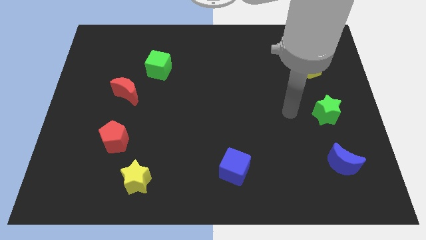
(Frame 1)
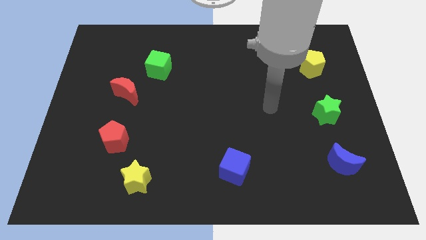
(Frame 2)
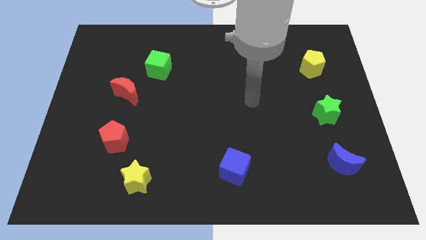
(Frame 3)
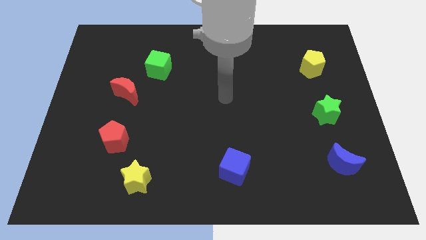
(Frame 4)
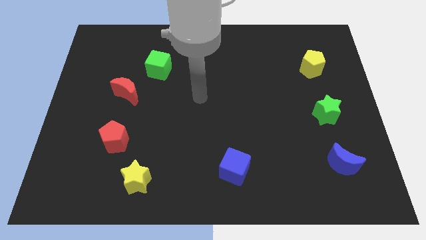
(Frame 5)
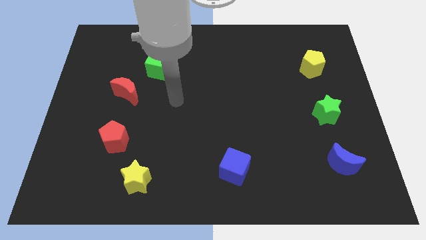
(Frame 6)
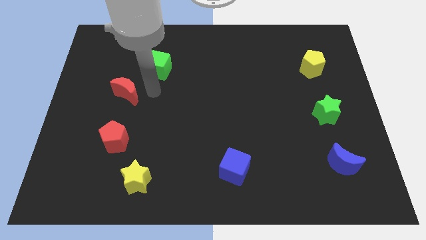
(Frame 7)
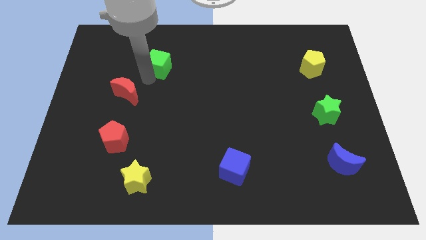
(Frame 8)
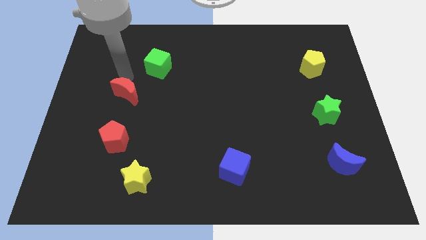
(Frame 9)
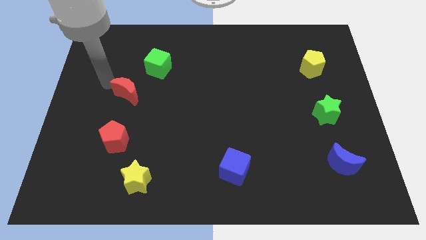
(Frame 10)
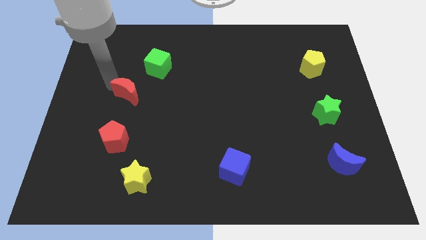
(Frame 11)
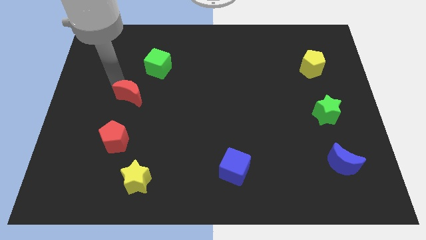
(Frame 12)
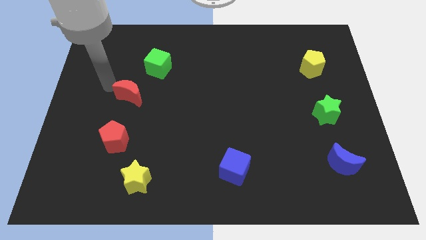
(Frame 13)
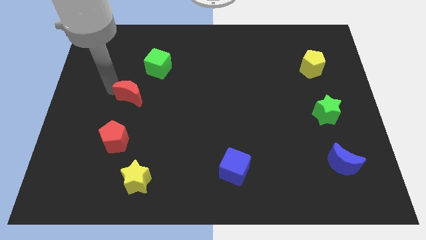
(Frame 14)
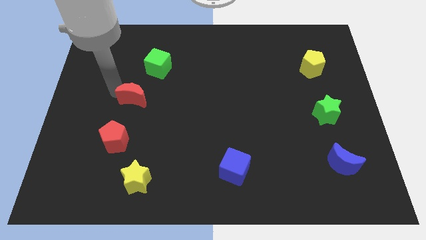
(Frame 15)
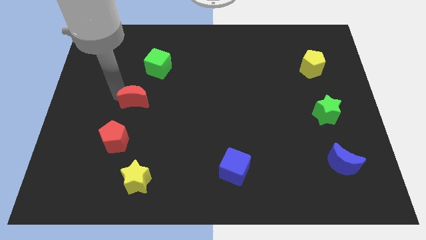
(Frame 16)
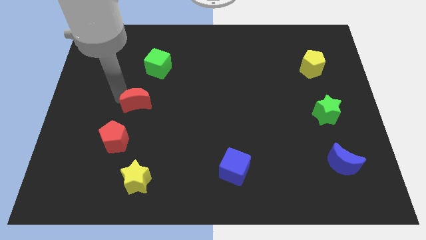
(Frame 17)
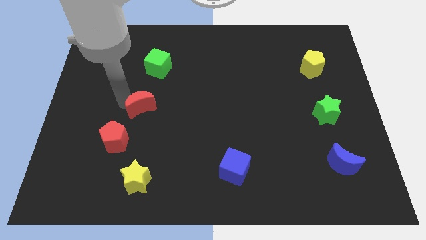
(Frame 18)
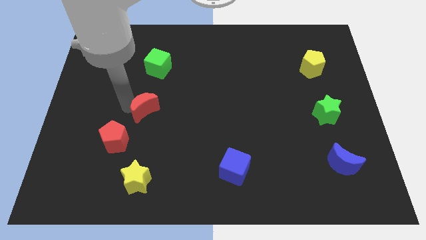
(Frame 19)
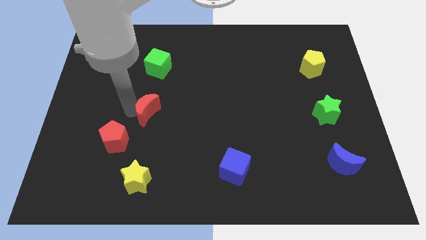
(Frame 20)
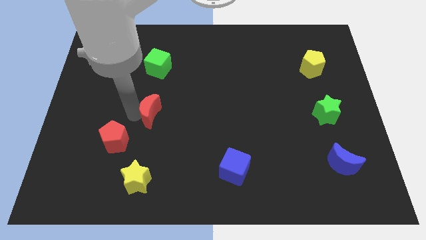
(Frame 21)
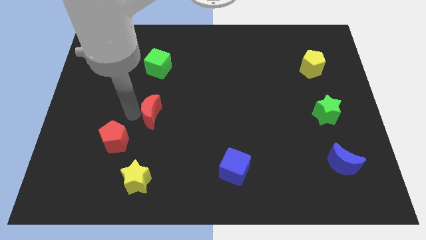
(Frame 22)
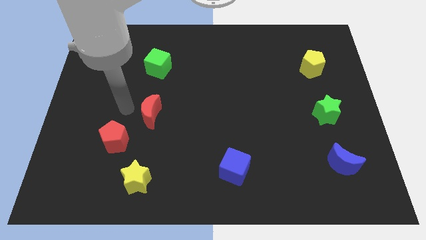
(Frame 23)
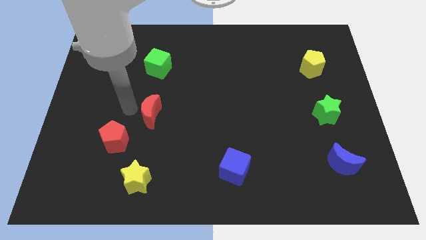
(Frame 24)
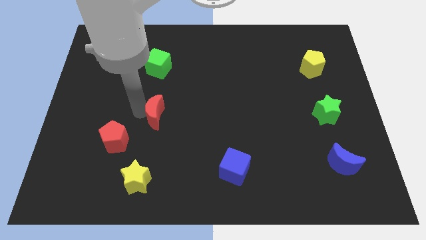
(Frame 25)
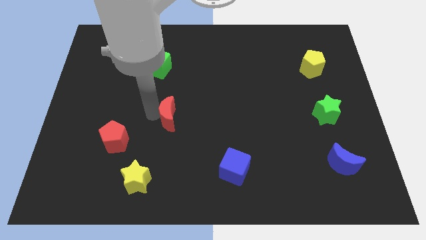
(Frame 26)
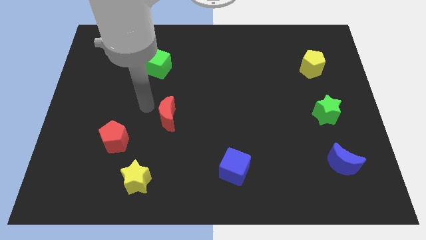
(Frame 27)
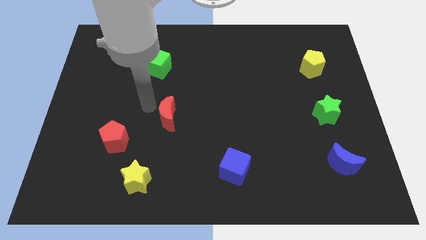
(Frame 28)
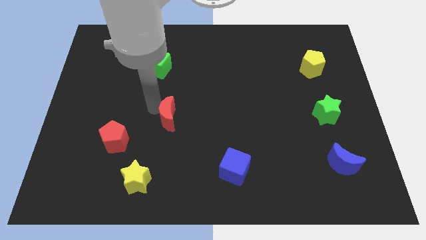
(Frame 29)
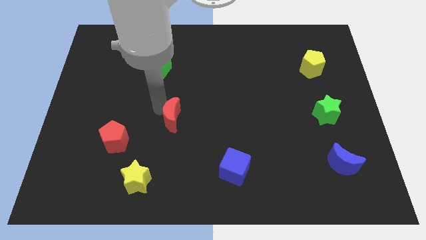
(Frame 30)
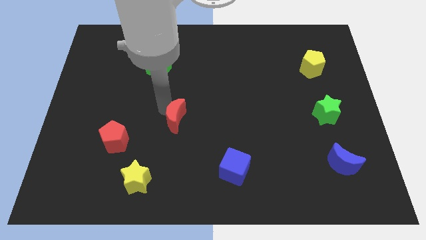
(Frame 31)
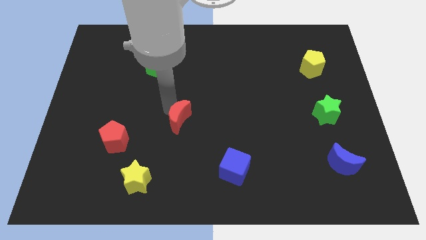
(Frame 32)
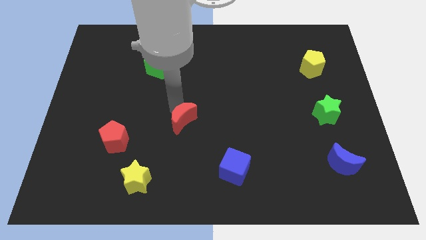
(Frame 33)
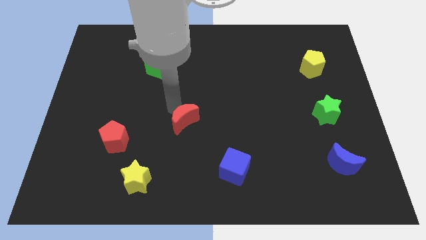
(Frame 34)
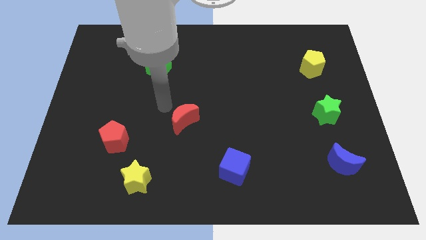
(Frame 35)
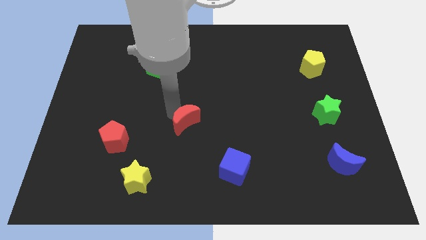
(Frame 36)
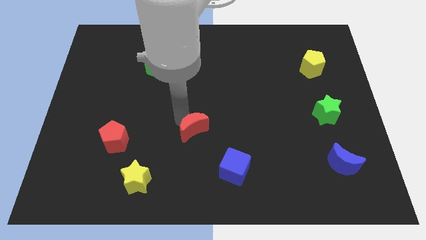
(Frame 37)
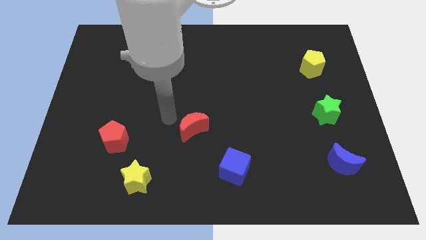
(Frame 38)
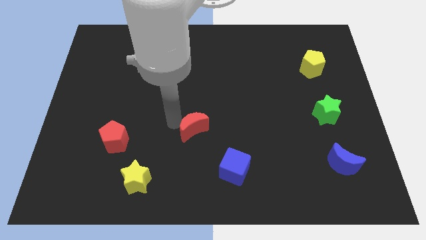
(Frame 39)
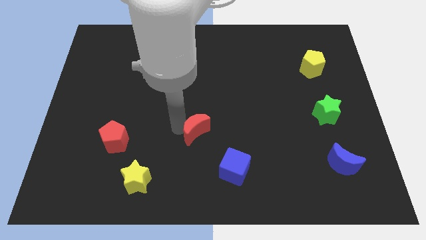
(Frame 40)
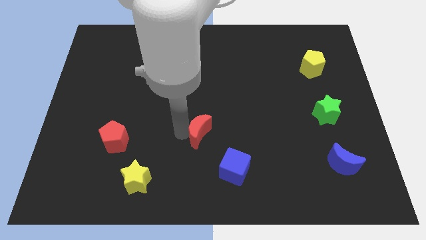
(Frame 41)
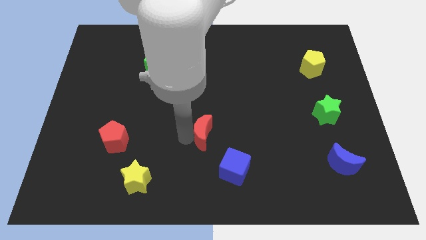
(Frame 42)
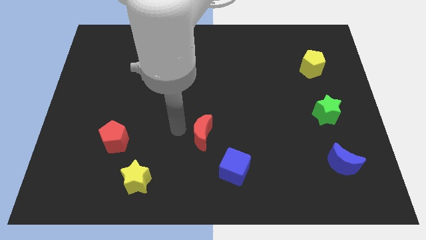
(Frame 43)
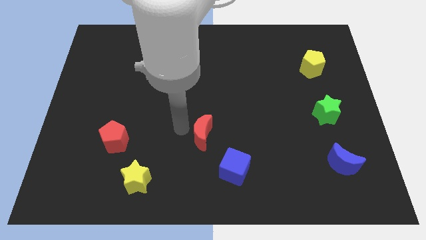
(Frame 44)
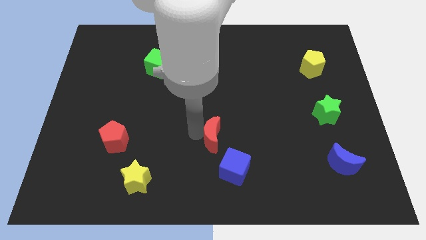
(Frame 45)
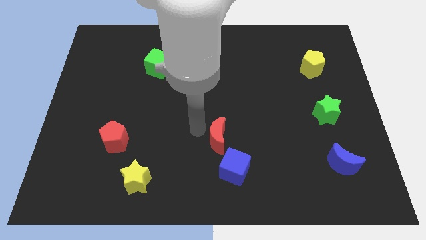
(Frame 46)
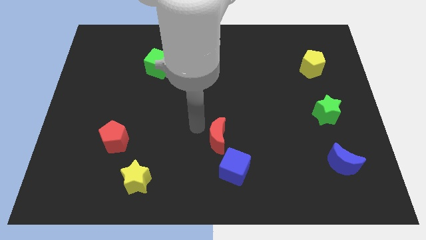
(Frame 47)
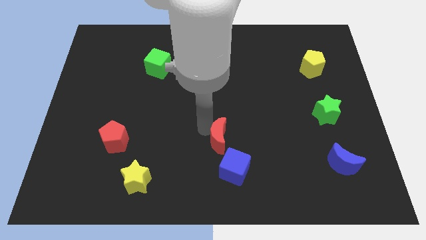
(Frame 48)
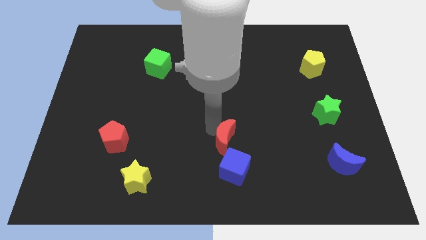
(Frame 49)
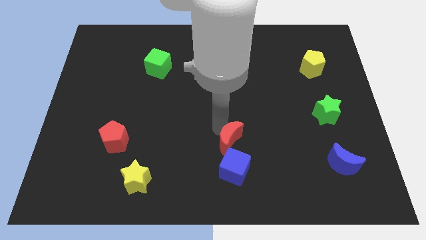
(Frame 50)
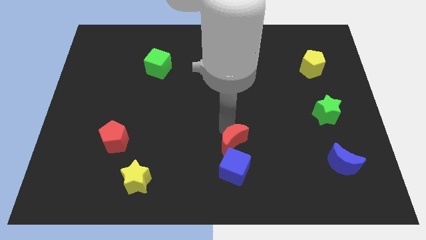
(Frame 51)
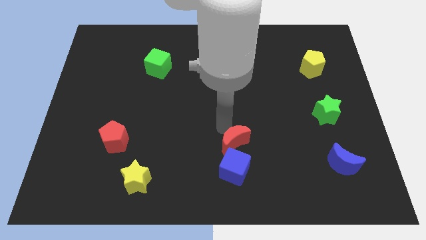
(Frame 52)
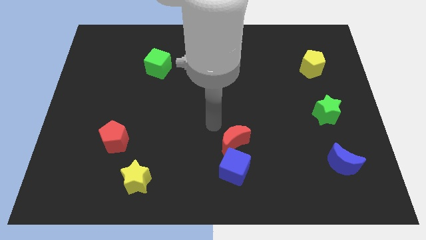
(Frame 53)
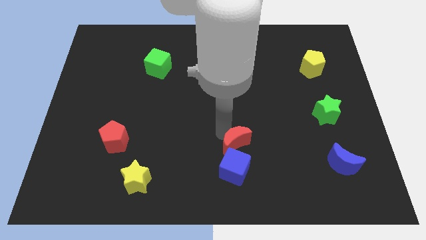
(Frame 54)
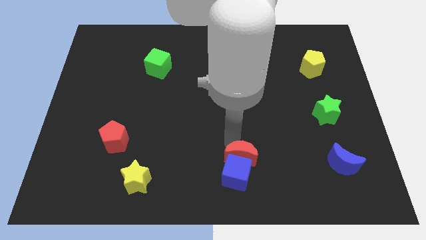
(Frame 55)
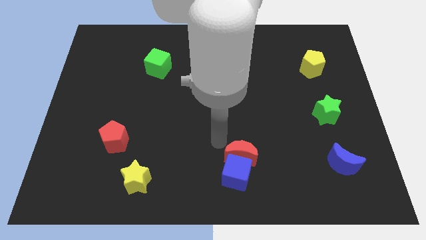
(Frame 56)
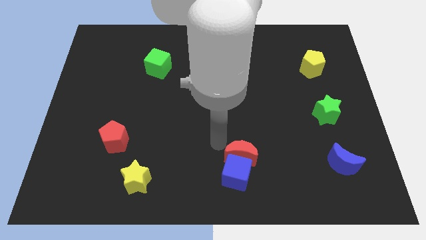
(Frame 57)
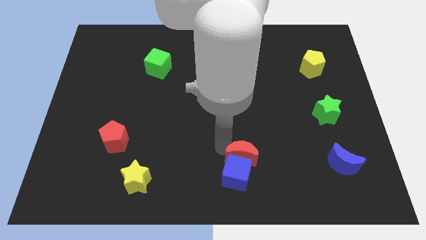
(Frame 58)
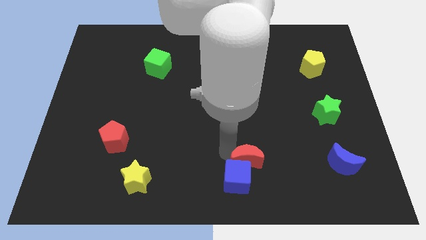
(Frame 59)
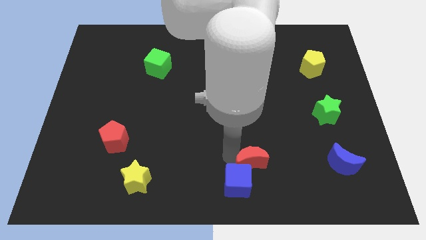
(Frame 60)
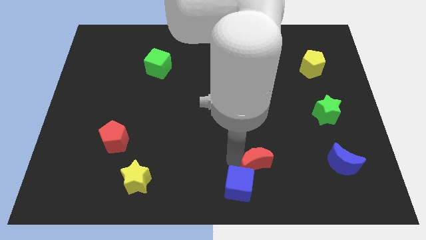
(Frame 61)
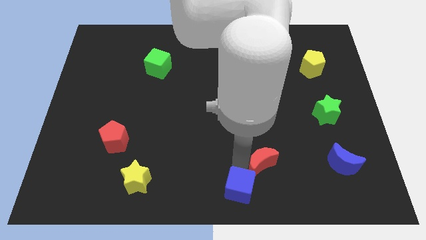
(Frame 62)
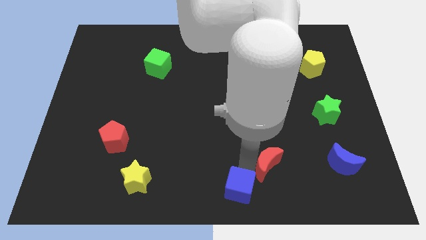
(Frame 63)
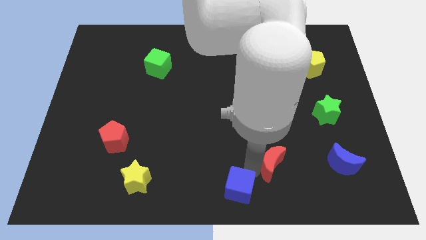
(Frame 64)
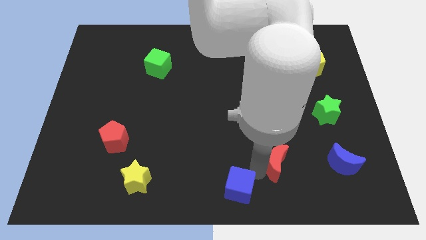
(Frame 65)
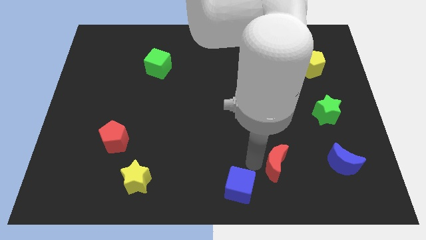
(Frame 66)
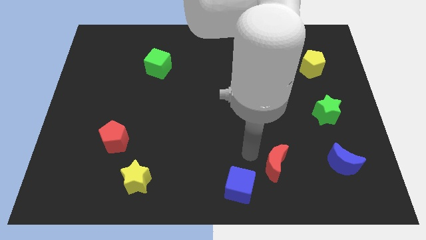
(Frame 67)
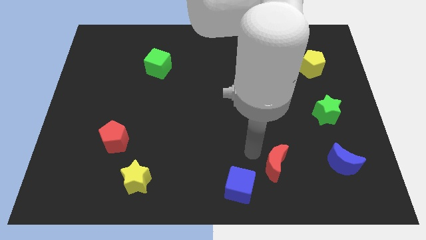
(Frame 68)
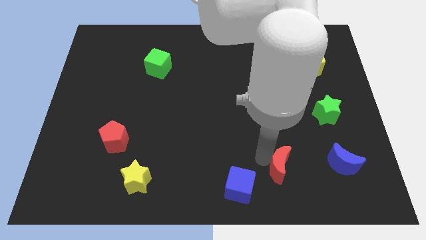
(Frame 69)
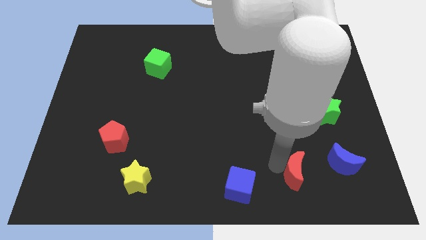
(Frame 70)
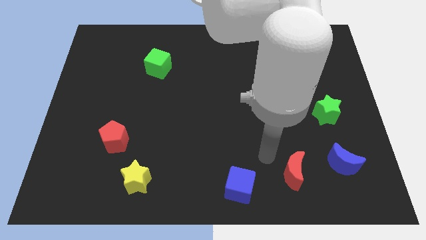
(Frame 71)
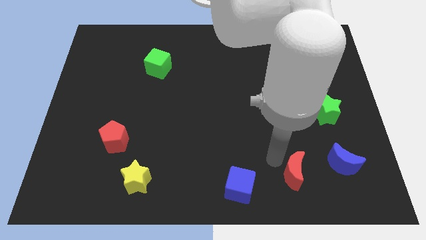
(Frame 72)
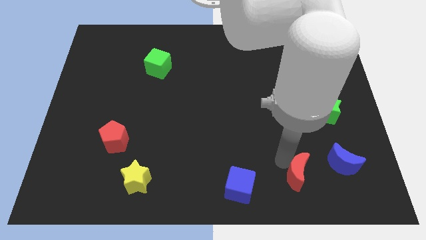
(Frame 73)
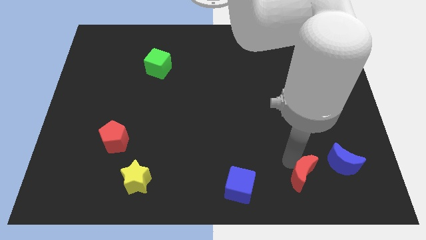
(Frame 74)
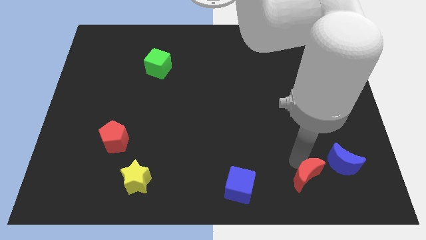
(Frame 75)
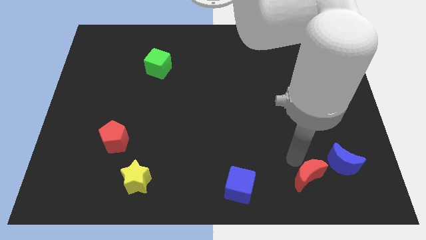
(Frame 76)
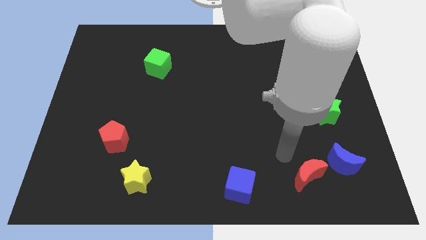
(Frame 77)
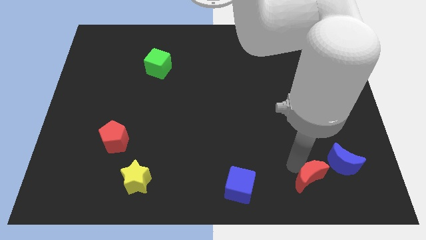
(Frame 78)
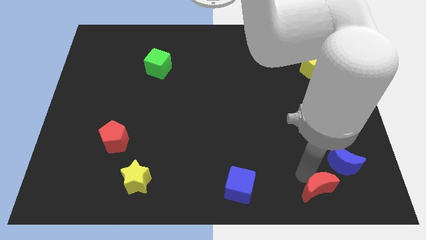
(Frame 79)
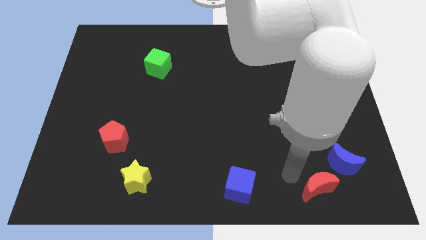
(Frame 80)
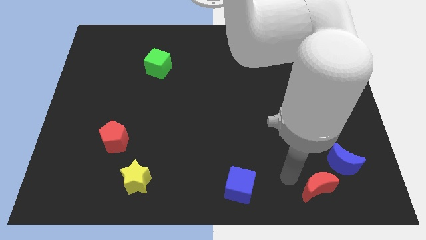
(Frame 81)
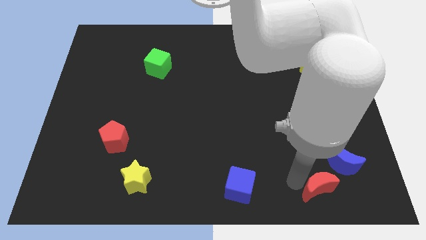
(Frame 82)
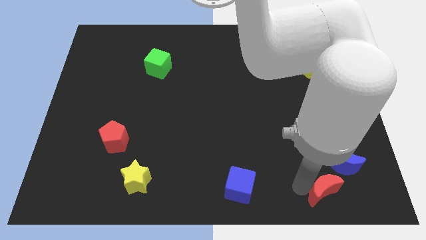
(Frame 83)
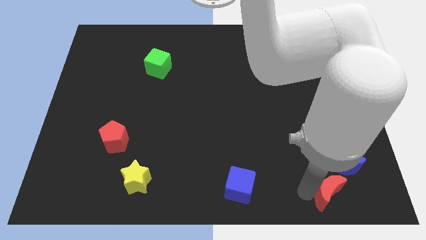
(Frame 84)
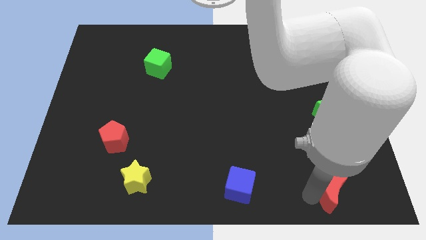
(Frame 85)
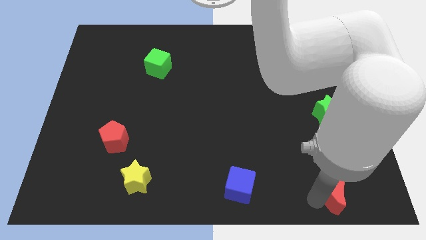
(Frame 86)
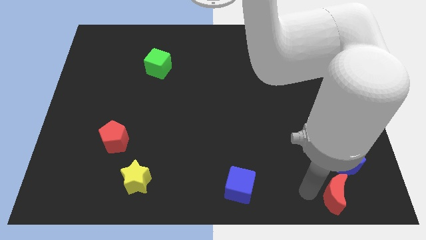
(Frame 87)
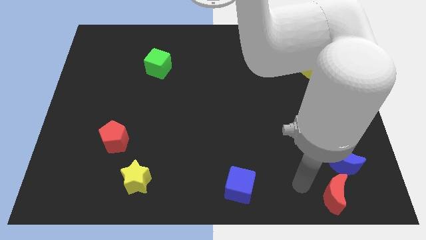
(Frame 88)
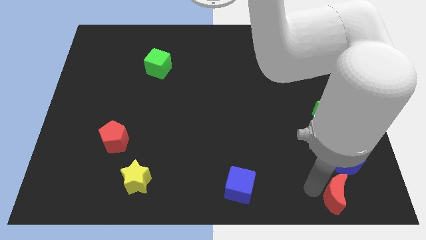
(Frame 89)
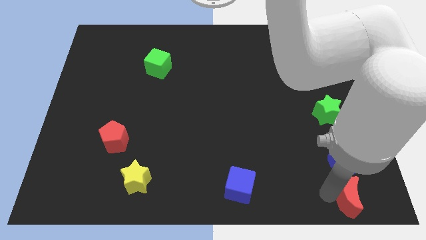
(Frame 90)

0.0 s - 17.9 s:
move the red moon to the bottom right of the board
